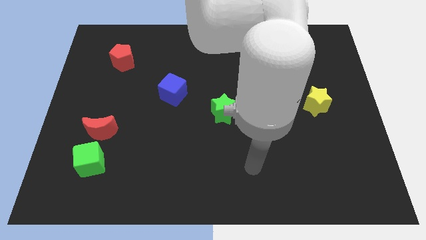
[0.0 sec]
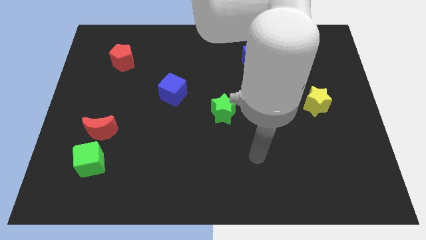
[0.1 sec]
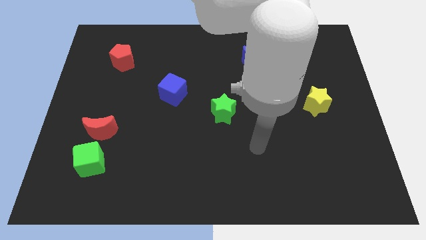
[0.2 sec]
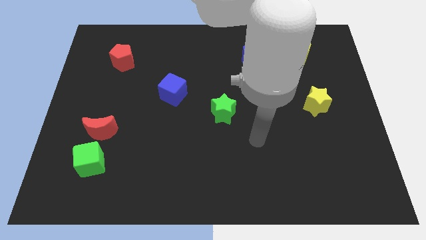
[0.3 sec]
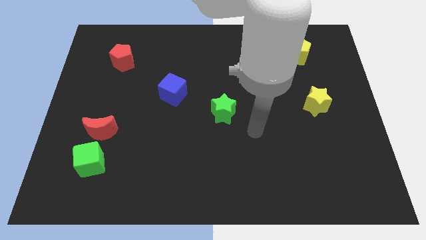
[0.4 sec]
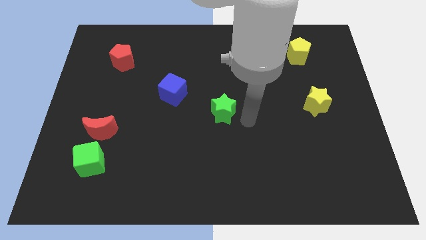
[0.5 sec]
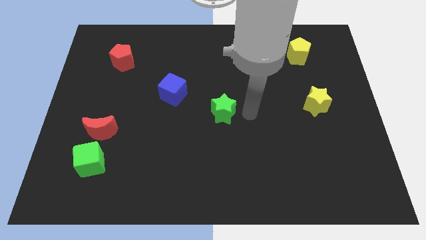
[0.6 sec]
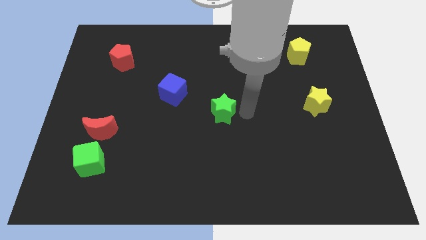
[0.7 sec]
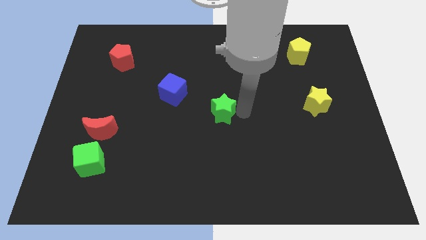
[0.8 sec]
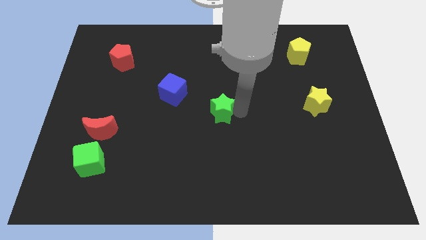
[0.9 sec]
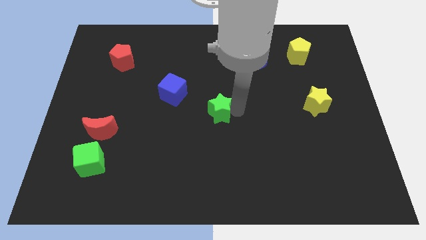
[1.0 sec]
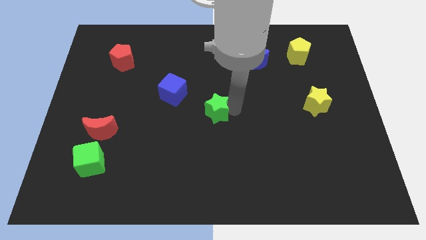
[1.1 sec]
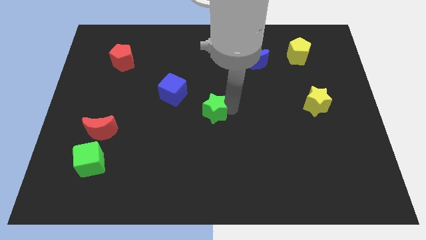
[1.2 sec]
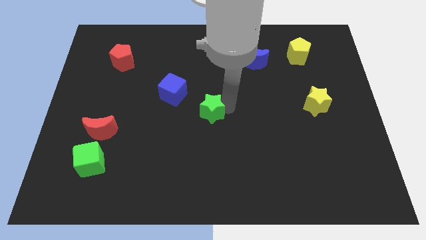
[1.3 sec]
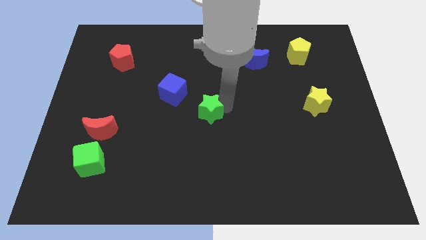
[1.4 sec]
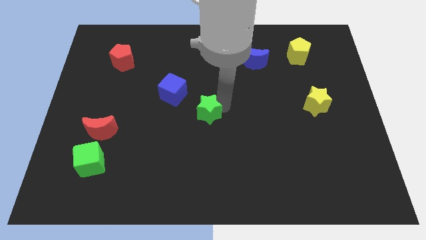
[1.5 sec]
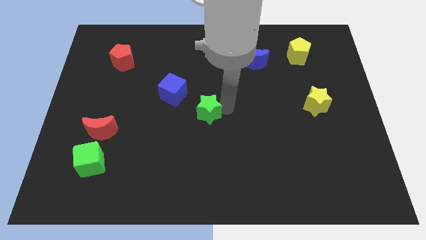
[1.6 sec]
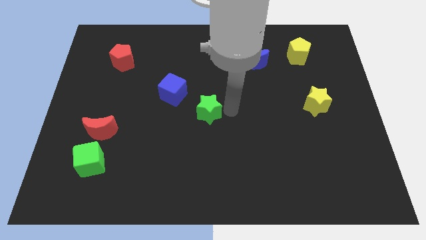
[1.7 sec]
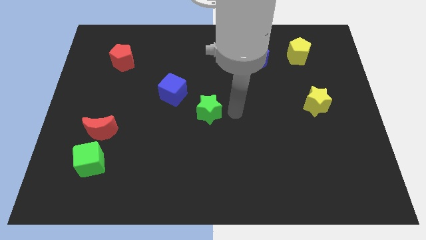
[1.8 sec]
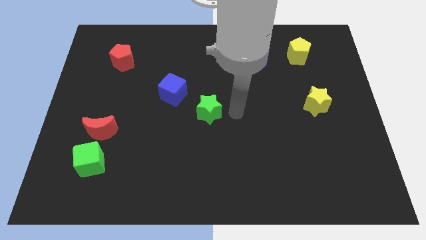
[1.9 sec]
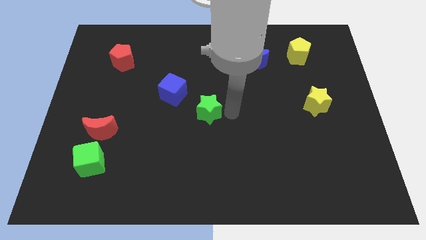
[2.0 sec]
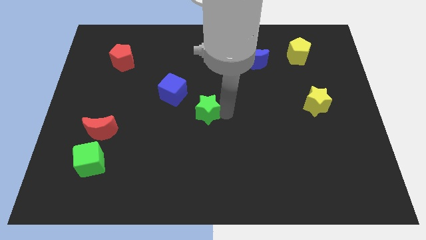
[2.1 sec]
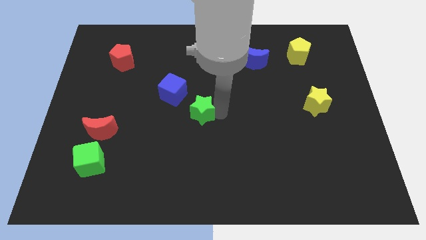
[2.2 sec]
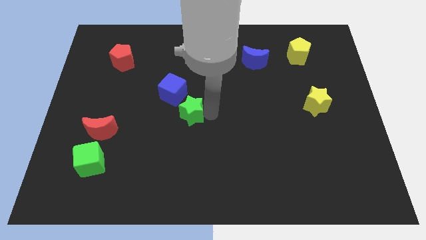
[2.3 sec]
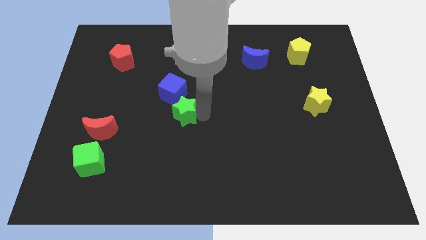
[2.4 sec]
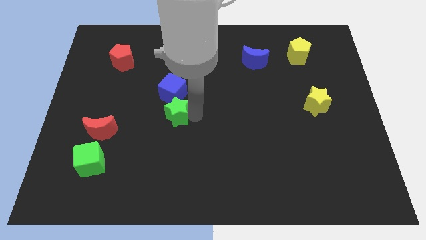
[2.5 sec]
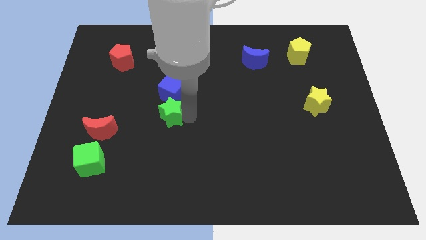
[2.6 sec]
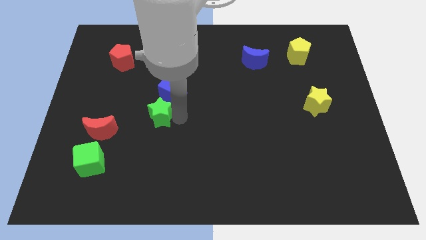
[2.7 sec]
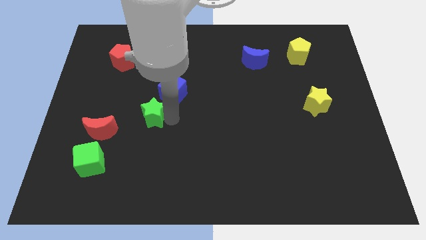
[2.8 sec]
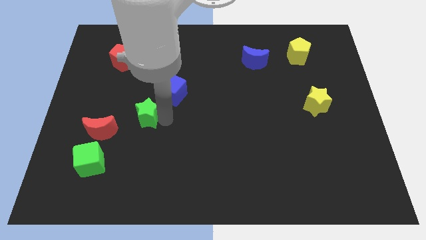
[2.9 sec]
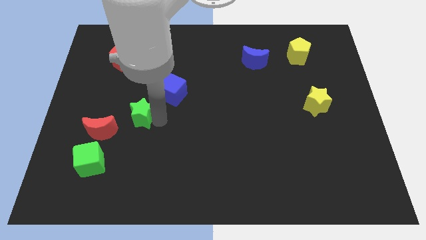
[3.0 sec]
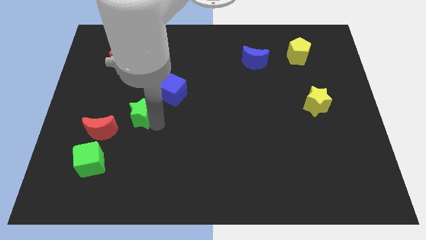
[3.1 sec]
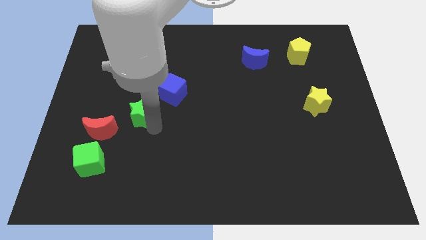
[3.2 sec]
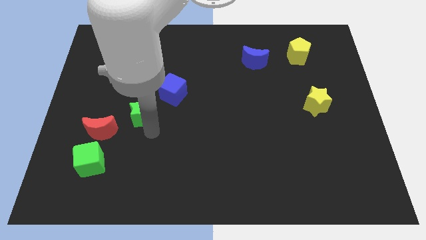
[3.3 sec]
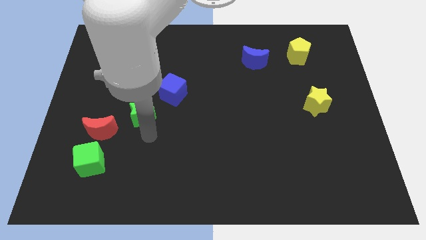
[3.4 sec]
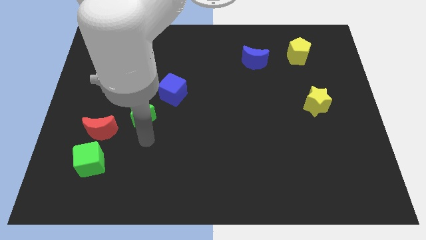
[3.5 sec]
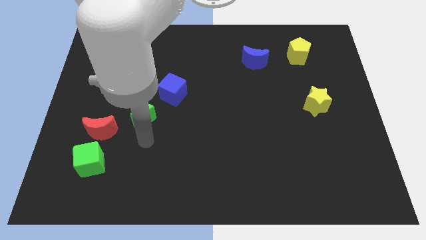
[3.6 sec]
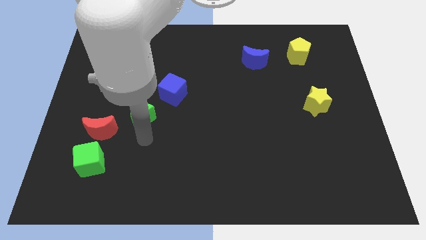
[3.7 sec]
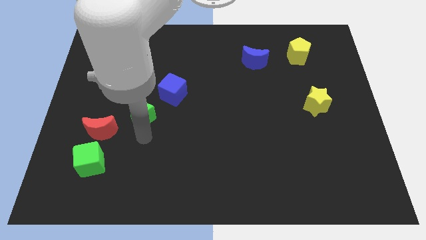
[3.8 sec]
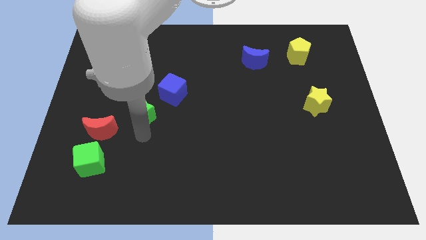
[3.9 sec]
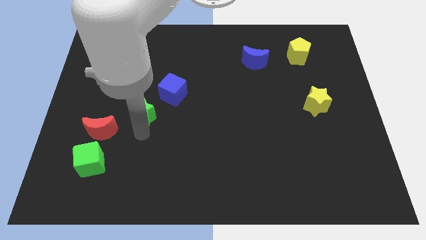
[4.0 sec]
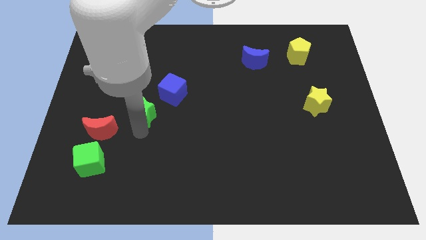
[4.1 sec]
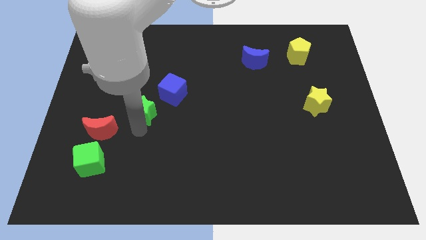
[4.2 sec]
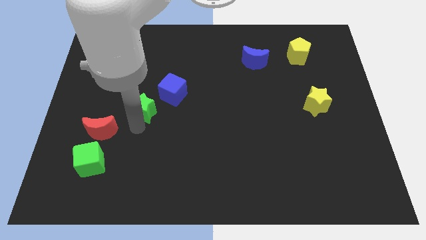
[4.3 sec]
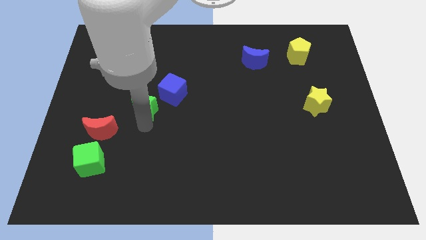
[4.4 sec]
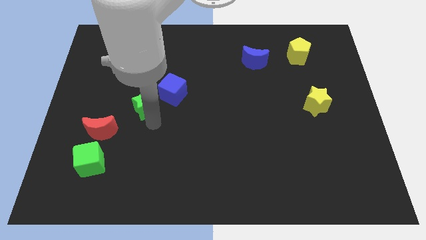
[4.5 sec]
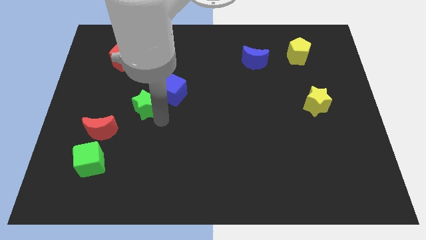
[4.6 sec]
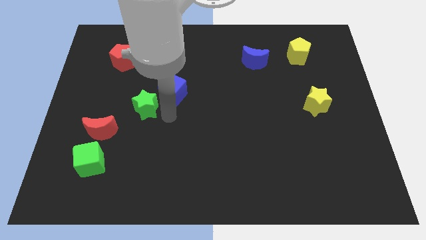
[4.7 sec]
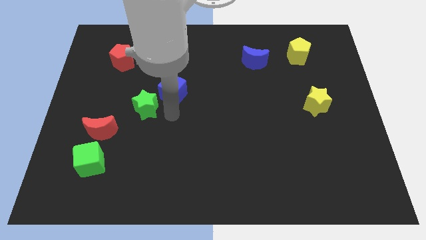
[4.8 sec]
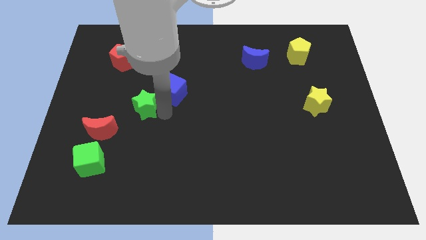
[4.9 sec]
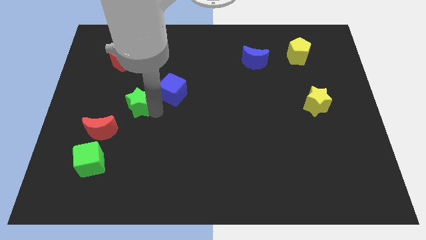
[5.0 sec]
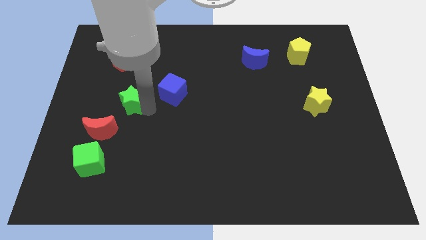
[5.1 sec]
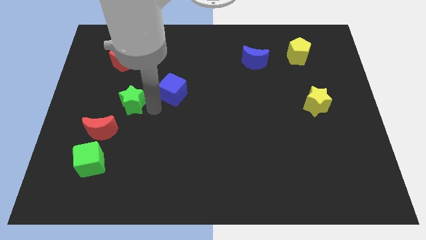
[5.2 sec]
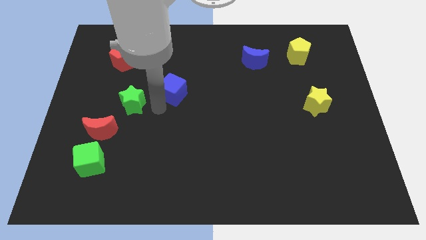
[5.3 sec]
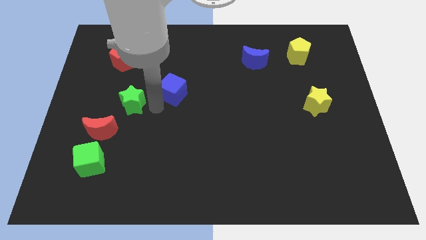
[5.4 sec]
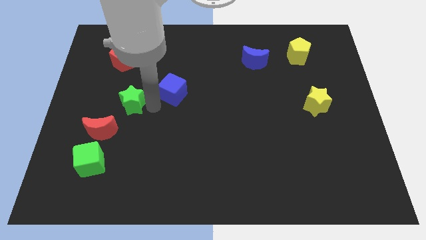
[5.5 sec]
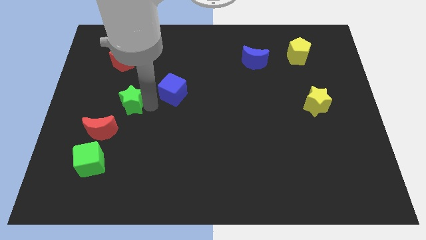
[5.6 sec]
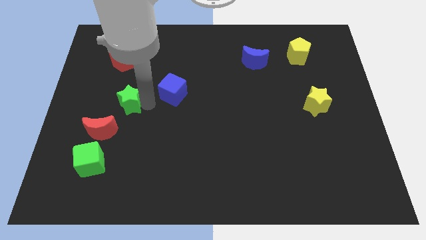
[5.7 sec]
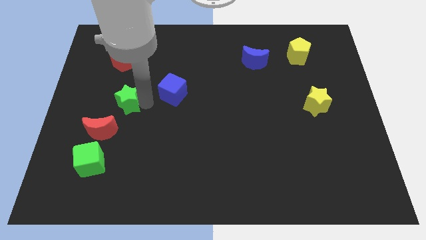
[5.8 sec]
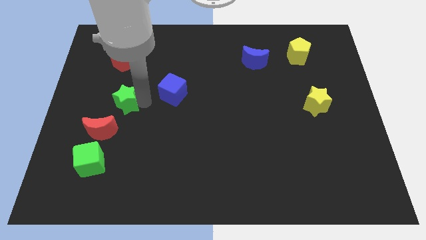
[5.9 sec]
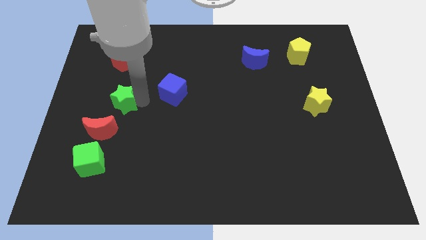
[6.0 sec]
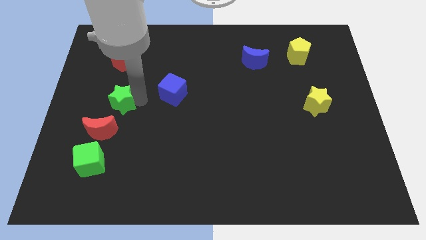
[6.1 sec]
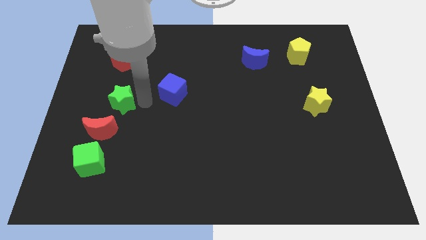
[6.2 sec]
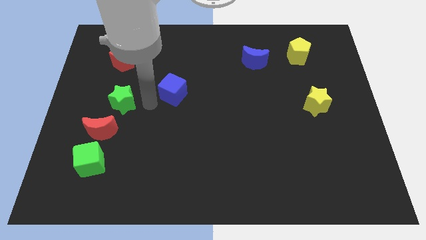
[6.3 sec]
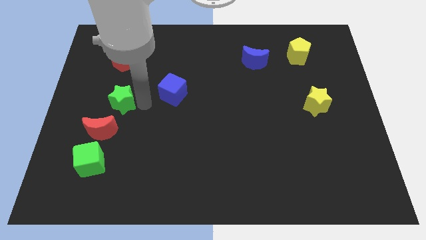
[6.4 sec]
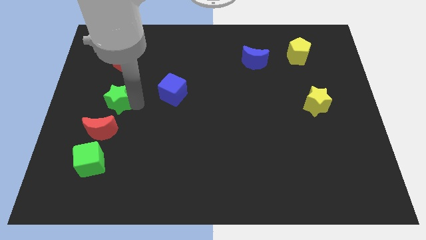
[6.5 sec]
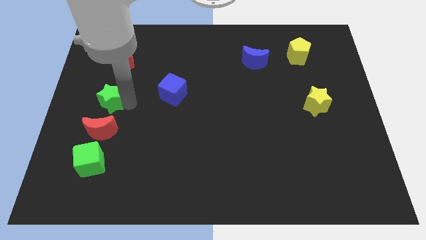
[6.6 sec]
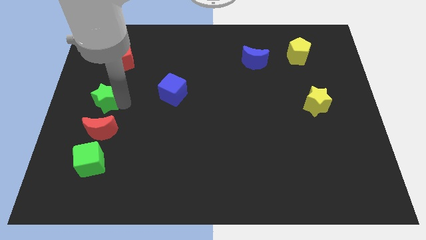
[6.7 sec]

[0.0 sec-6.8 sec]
slide the green star to the left side of the board
